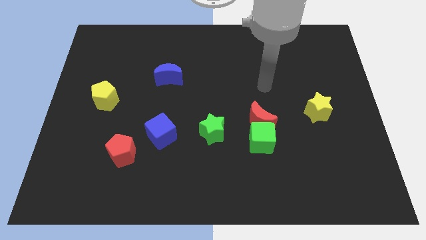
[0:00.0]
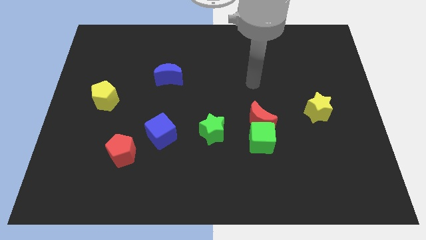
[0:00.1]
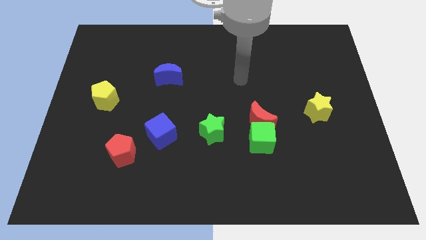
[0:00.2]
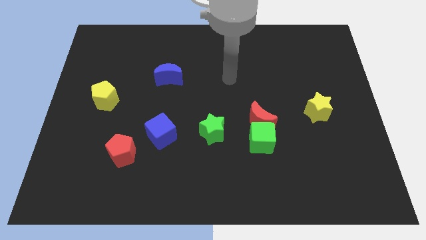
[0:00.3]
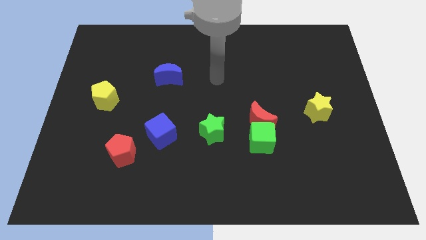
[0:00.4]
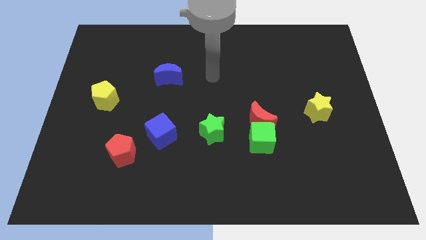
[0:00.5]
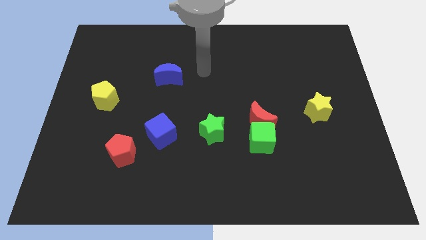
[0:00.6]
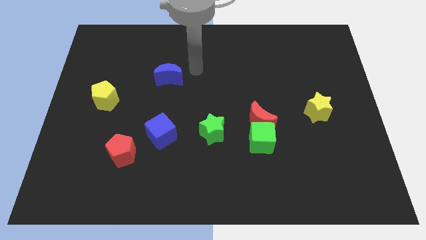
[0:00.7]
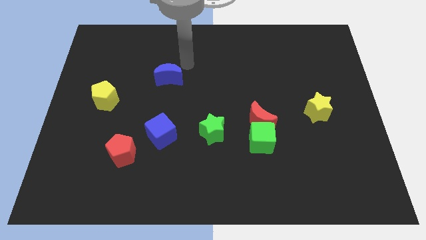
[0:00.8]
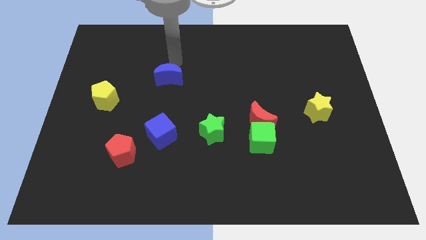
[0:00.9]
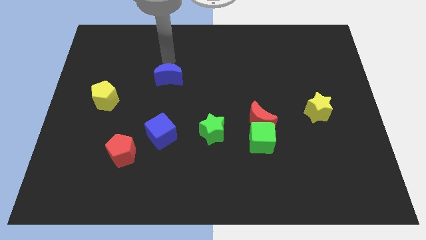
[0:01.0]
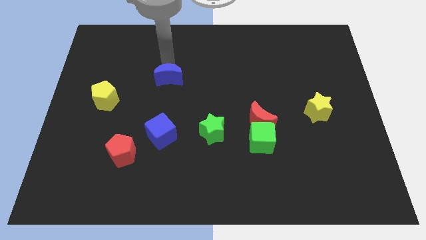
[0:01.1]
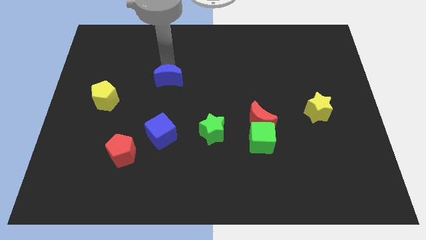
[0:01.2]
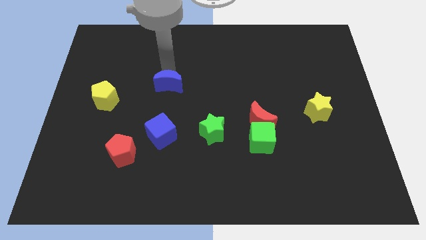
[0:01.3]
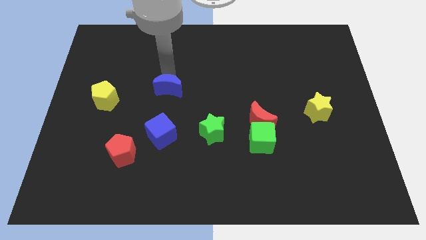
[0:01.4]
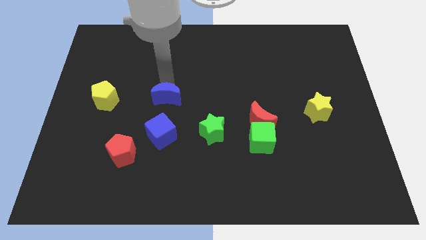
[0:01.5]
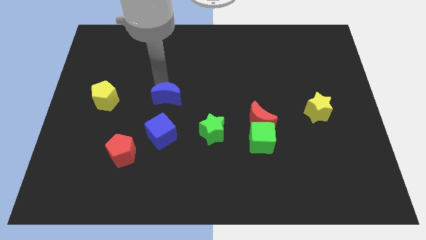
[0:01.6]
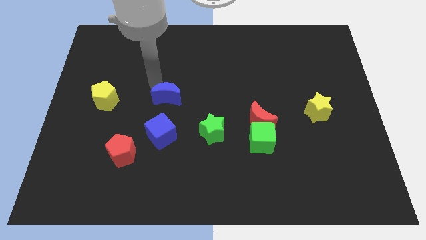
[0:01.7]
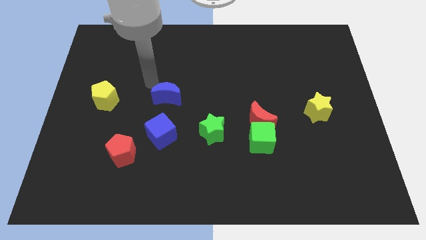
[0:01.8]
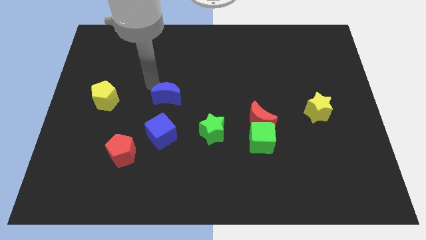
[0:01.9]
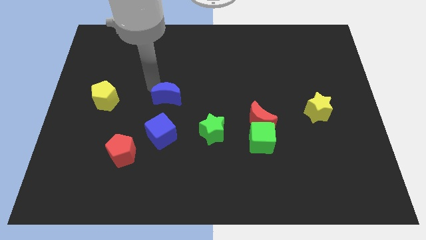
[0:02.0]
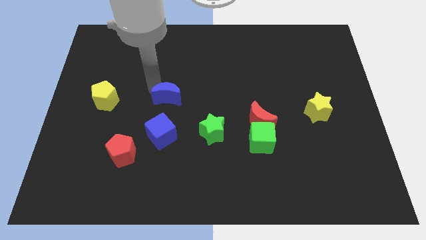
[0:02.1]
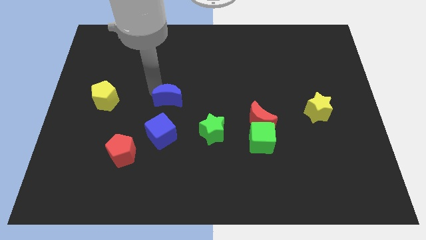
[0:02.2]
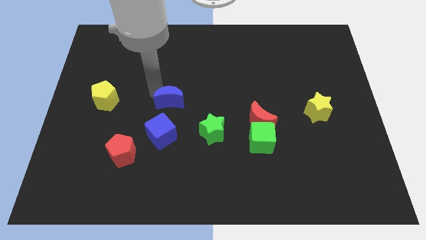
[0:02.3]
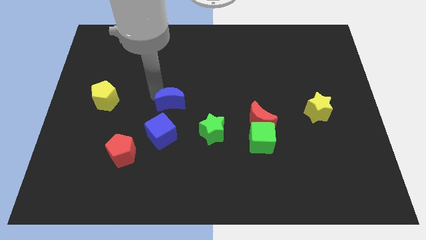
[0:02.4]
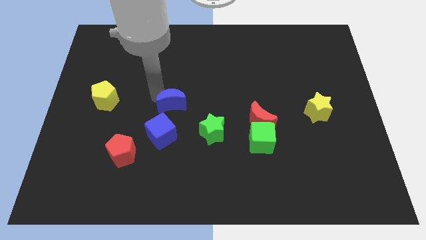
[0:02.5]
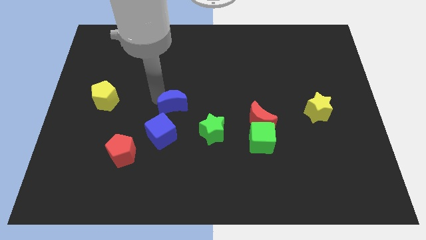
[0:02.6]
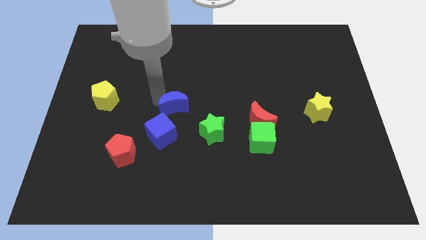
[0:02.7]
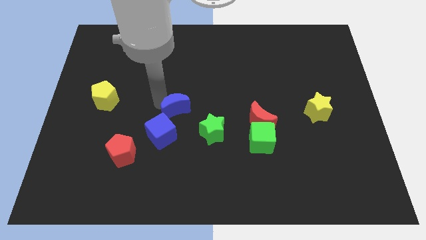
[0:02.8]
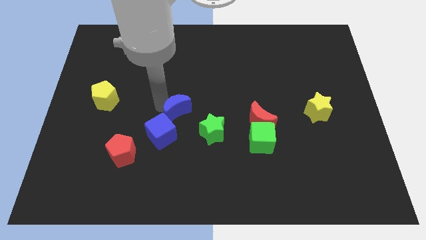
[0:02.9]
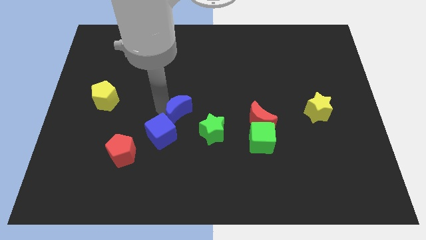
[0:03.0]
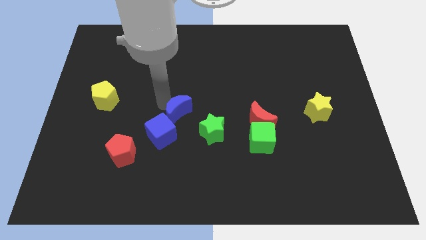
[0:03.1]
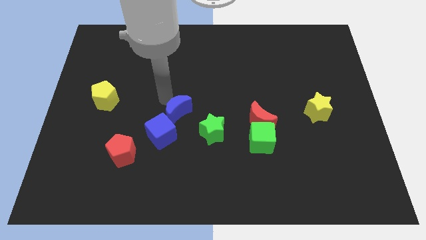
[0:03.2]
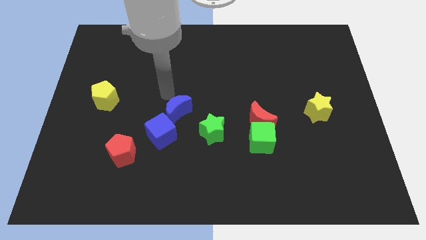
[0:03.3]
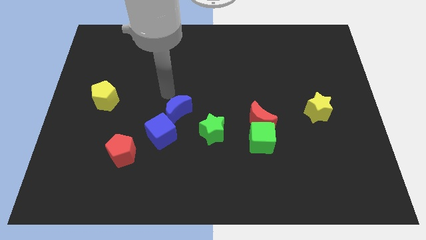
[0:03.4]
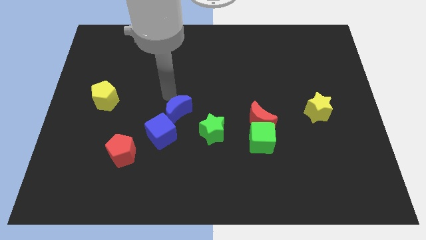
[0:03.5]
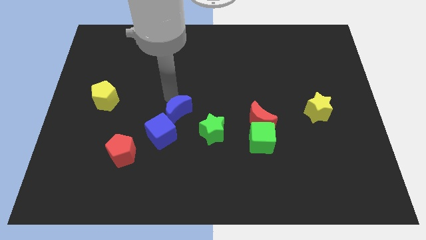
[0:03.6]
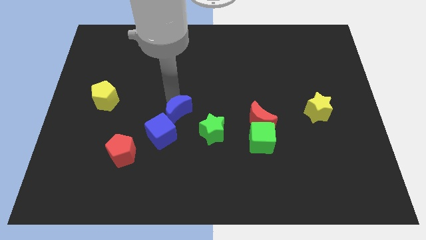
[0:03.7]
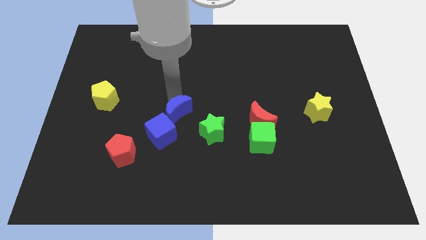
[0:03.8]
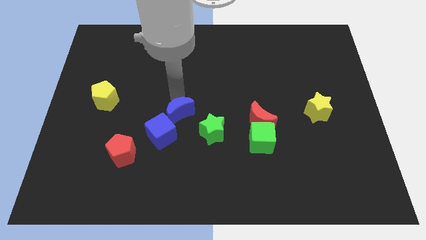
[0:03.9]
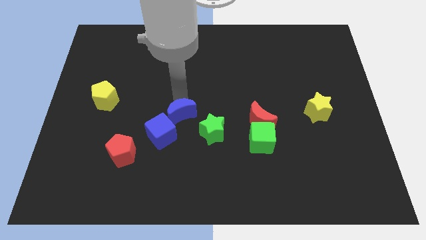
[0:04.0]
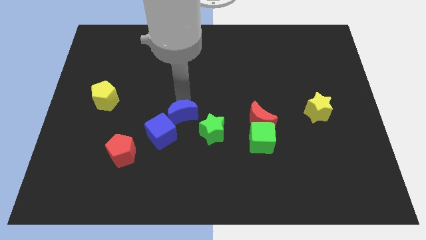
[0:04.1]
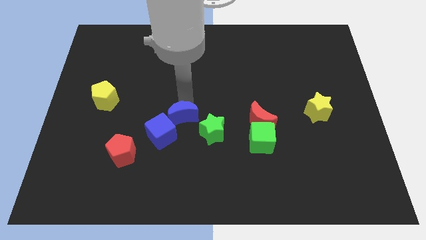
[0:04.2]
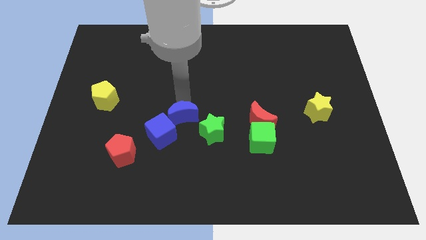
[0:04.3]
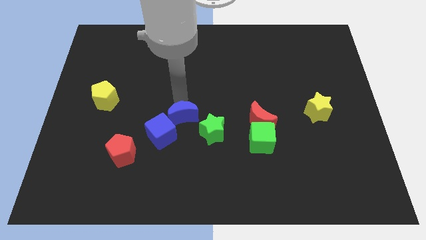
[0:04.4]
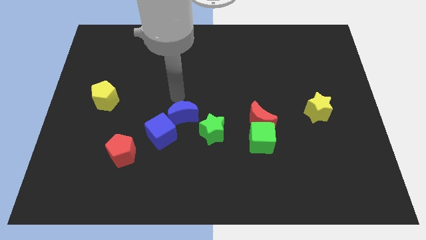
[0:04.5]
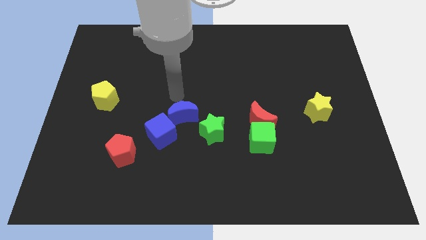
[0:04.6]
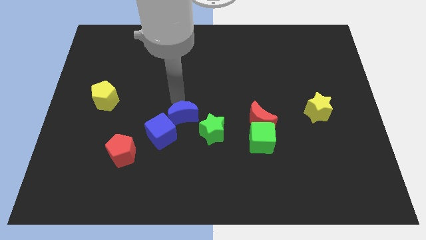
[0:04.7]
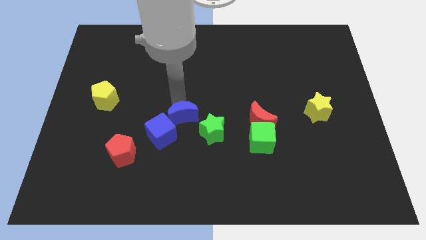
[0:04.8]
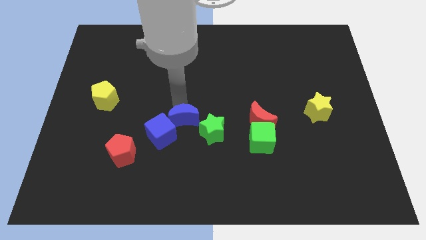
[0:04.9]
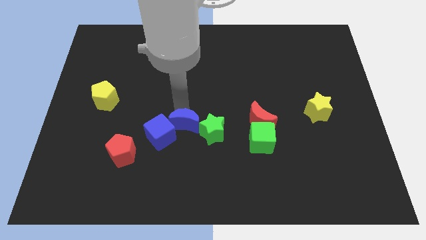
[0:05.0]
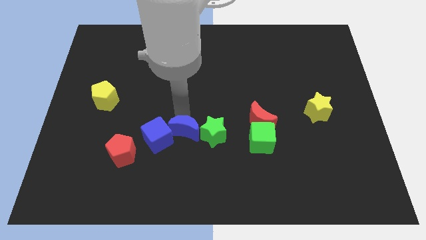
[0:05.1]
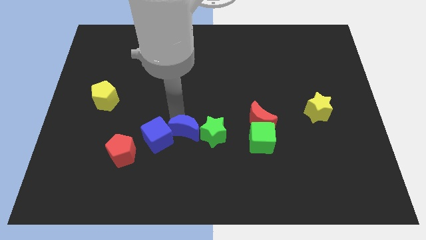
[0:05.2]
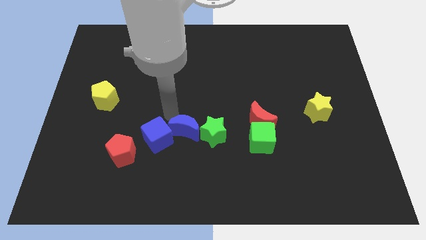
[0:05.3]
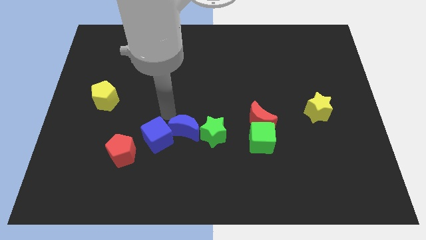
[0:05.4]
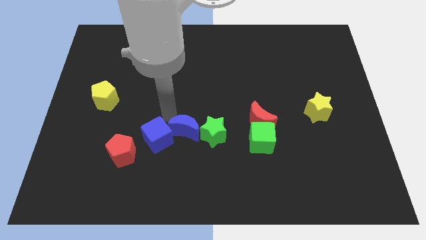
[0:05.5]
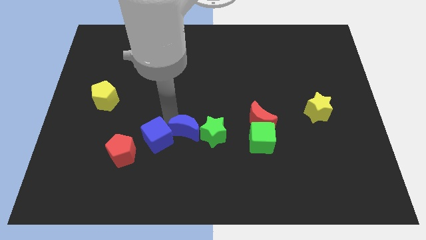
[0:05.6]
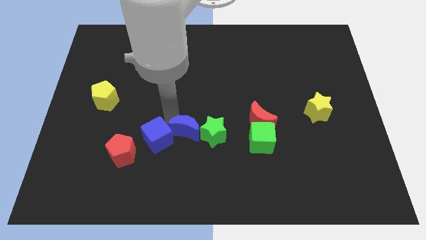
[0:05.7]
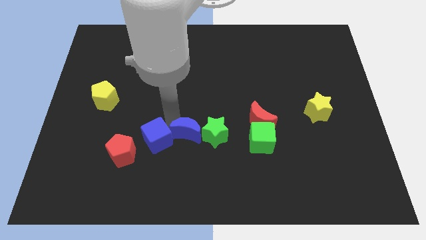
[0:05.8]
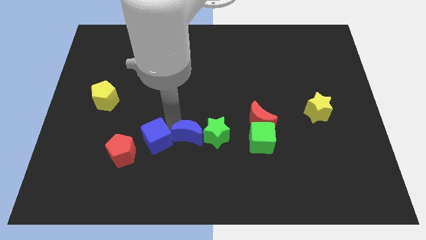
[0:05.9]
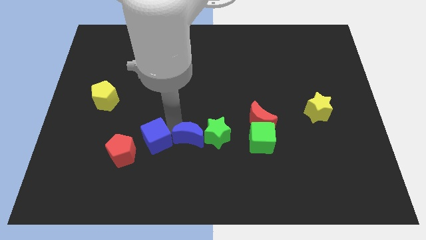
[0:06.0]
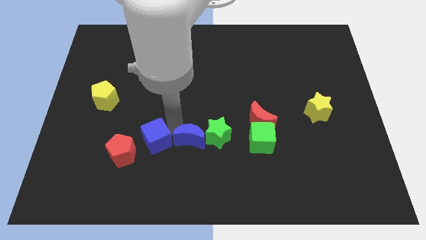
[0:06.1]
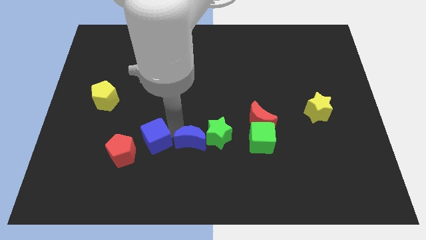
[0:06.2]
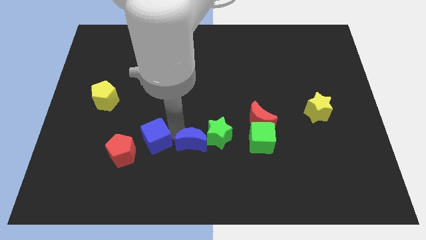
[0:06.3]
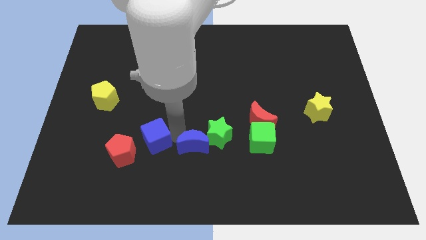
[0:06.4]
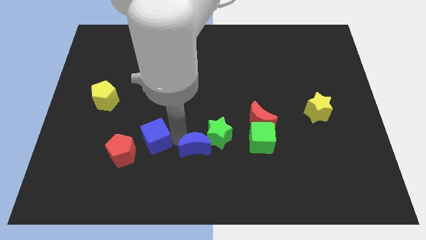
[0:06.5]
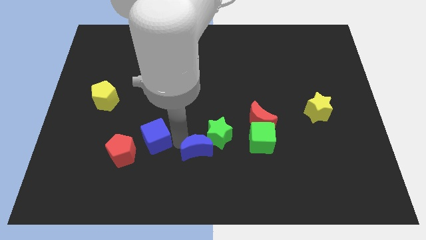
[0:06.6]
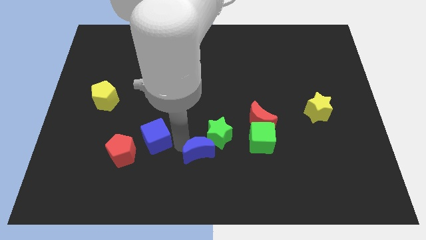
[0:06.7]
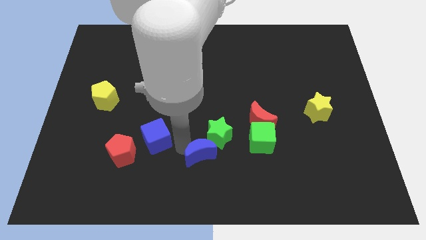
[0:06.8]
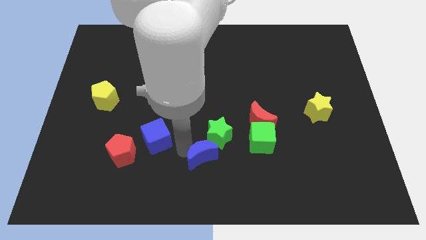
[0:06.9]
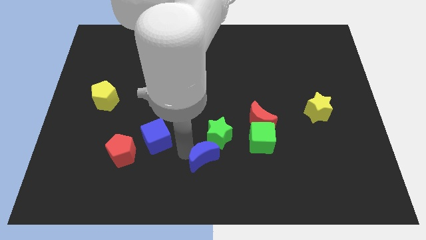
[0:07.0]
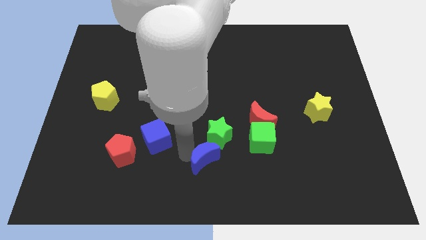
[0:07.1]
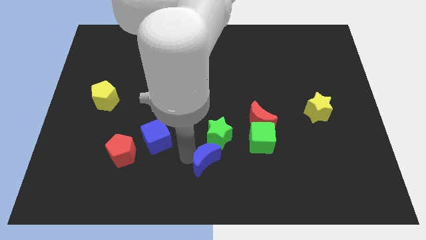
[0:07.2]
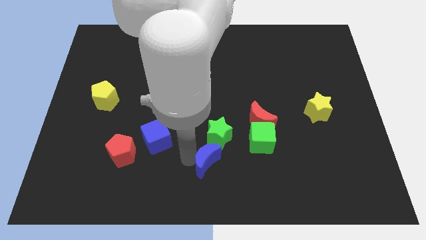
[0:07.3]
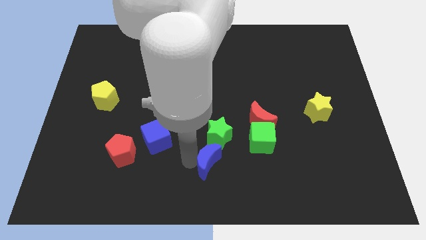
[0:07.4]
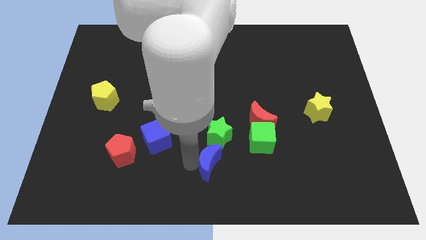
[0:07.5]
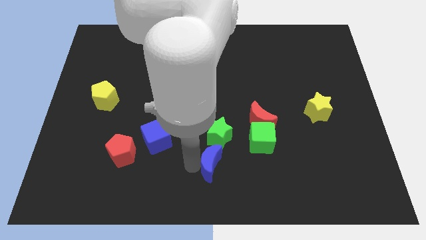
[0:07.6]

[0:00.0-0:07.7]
push the blue moon downwards and right diagonally

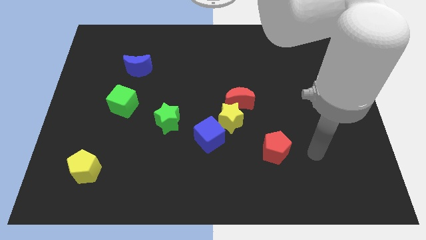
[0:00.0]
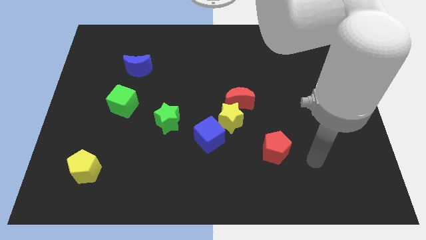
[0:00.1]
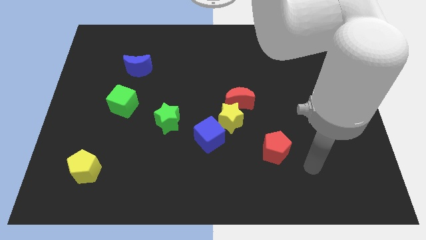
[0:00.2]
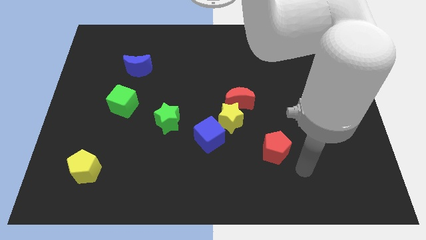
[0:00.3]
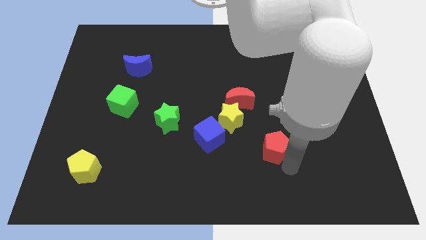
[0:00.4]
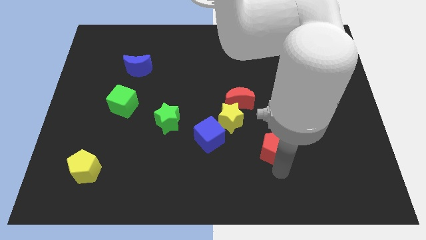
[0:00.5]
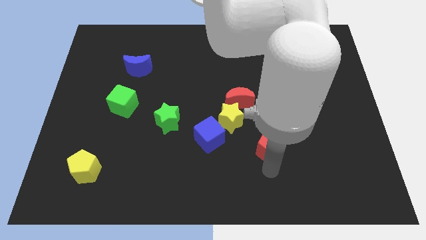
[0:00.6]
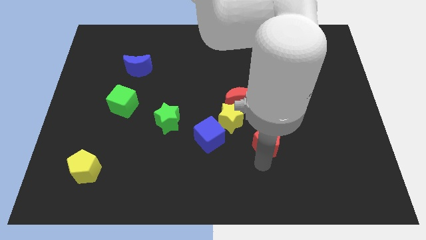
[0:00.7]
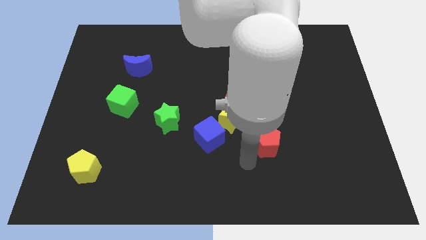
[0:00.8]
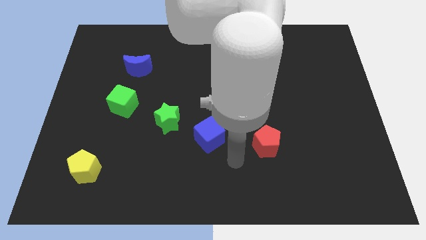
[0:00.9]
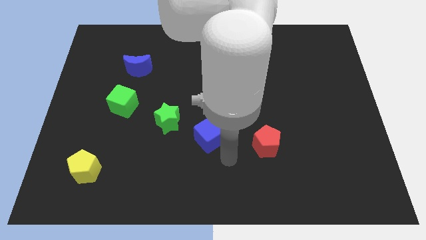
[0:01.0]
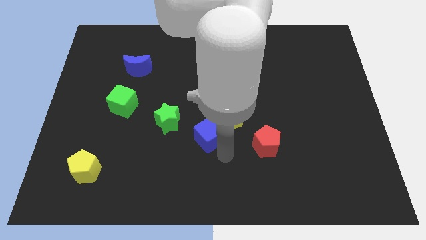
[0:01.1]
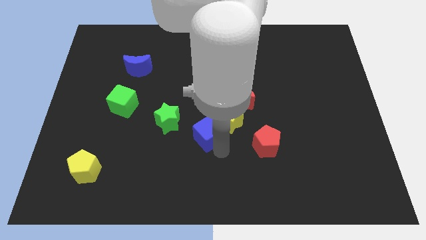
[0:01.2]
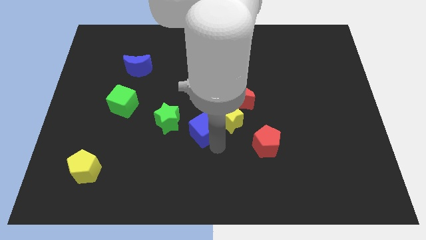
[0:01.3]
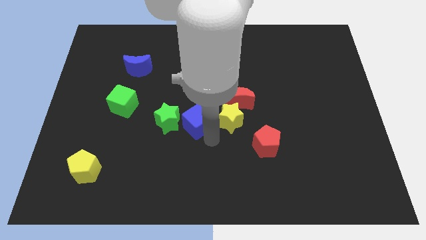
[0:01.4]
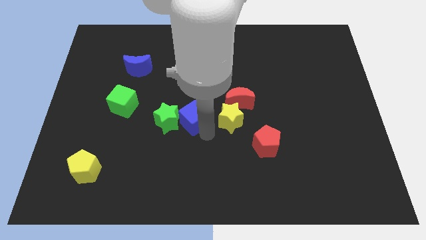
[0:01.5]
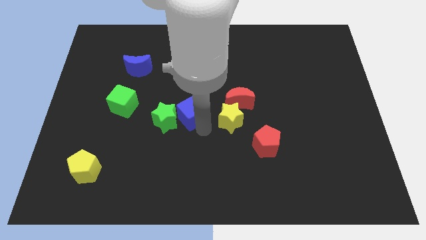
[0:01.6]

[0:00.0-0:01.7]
slide the blue cube upwards and then to the left a bit
